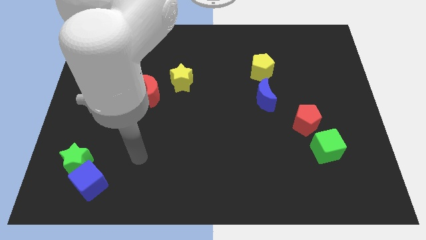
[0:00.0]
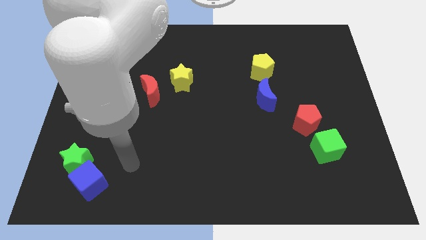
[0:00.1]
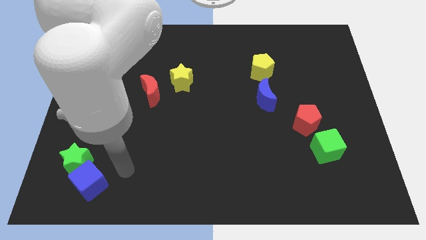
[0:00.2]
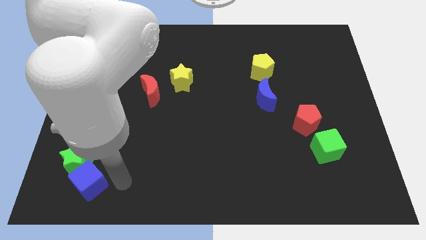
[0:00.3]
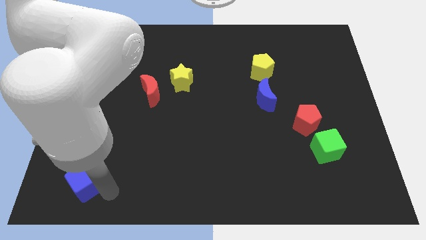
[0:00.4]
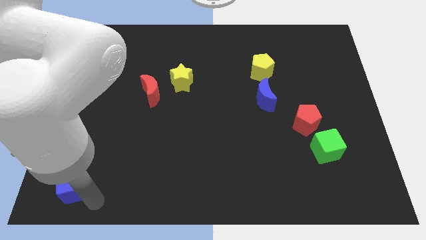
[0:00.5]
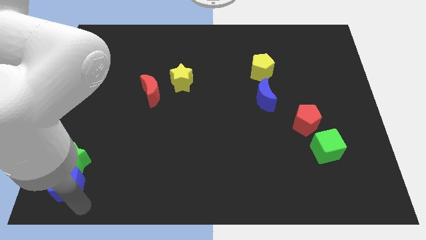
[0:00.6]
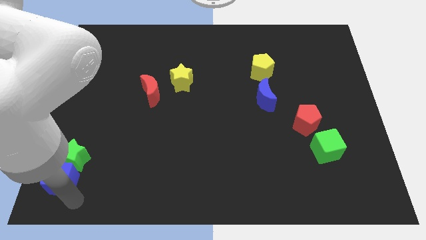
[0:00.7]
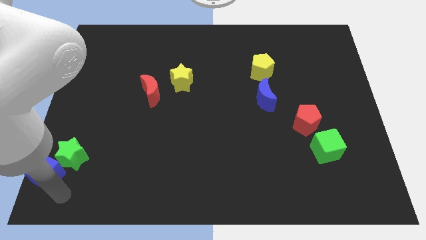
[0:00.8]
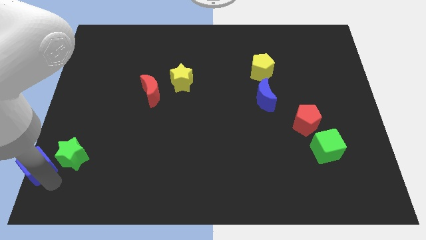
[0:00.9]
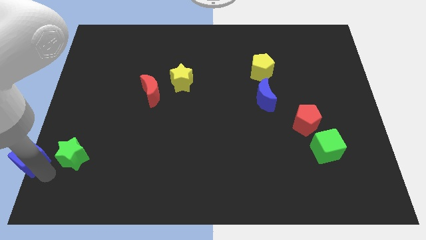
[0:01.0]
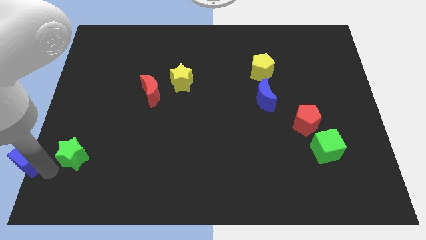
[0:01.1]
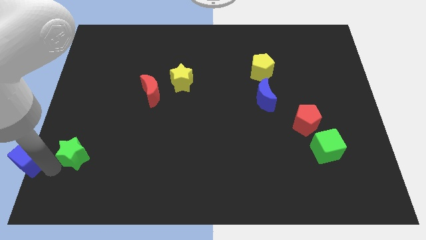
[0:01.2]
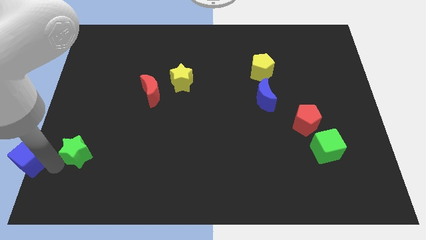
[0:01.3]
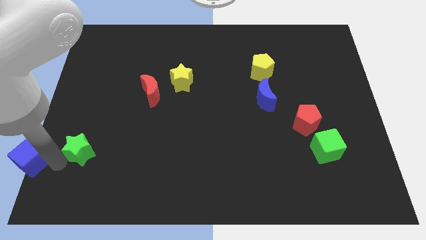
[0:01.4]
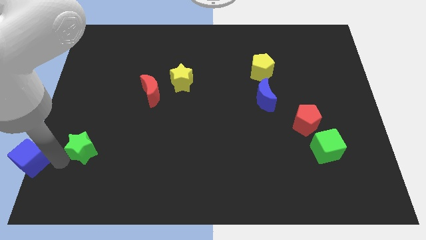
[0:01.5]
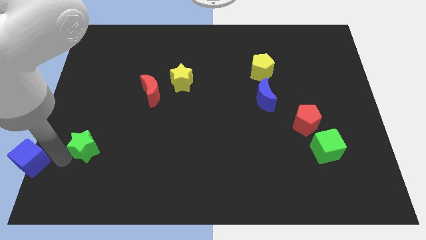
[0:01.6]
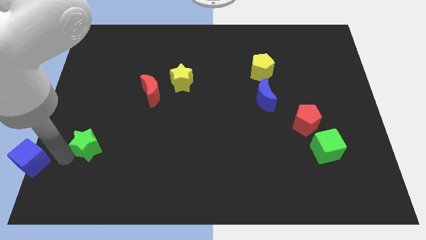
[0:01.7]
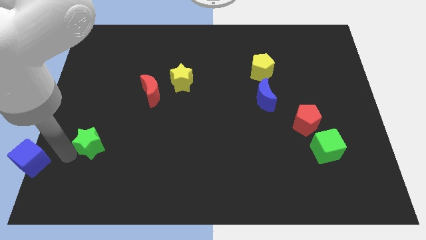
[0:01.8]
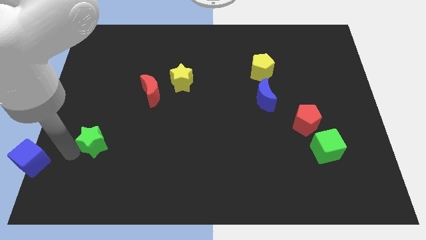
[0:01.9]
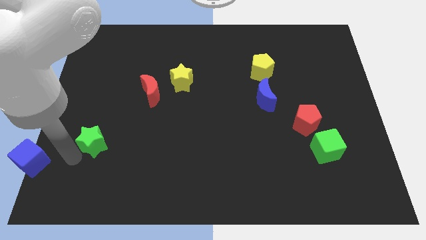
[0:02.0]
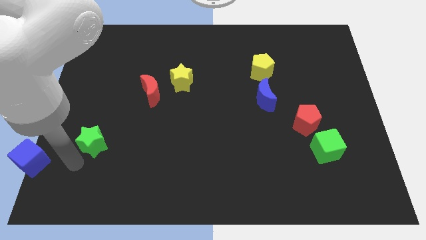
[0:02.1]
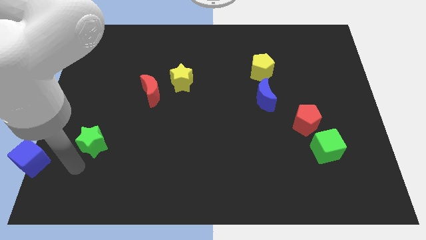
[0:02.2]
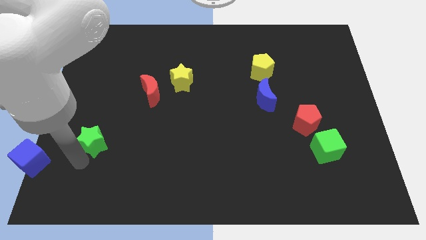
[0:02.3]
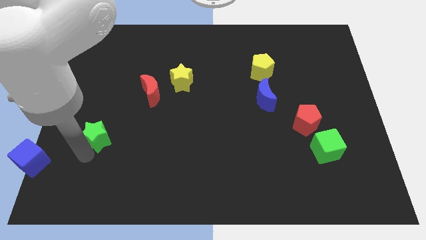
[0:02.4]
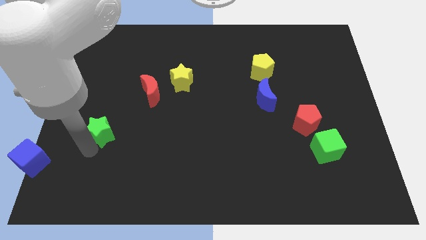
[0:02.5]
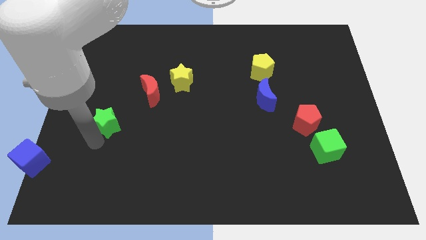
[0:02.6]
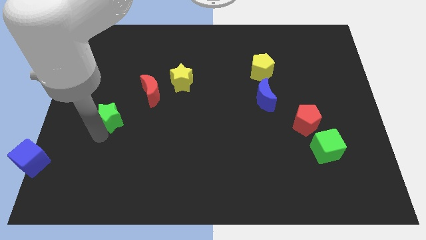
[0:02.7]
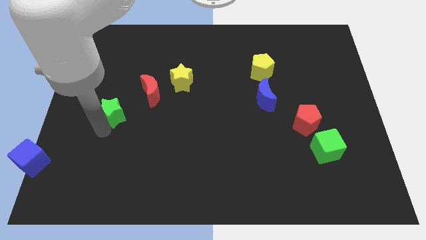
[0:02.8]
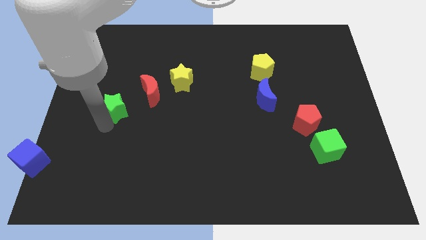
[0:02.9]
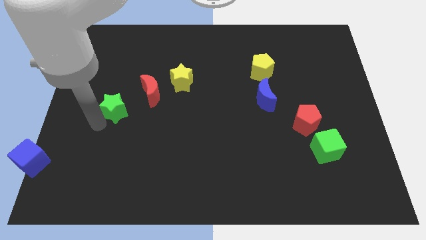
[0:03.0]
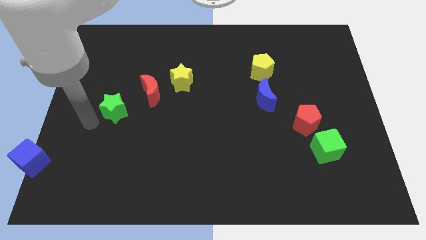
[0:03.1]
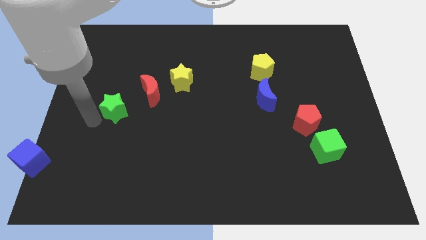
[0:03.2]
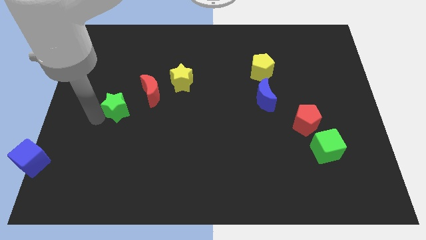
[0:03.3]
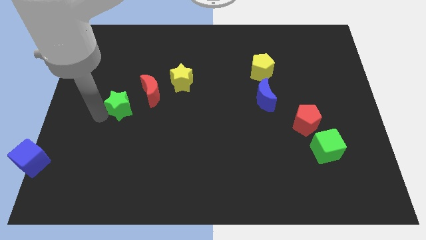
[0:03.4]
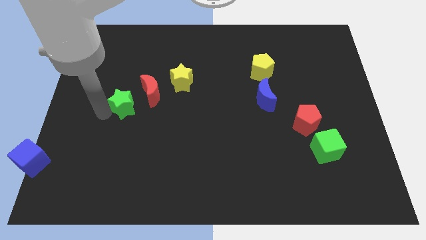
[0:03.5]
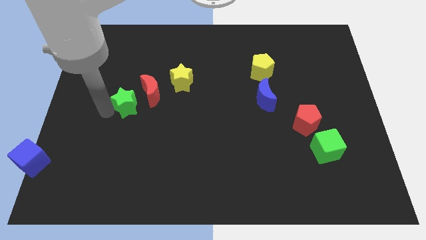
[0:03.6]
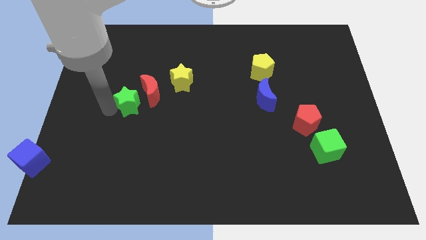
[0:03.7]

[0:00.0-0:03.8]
move the green star to the red moon

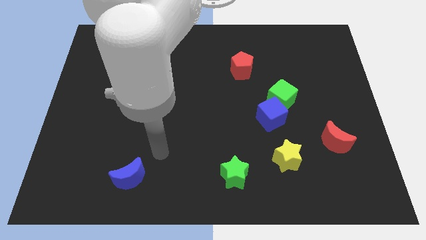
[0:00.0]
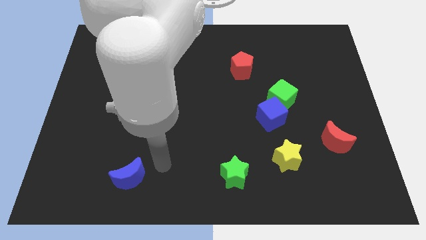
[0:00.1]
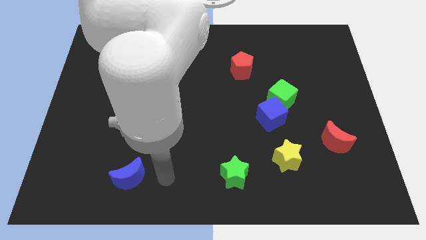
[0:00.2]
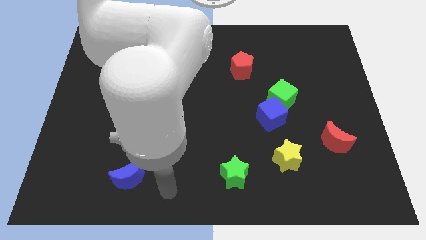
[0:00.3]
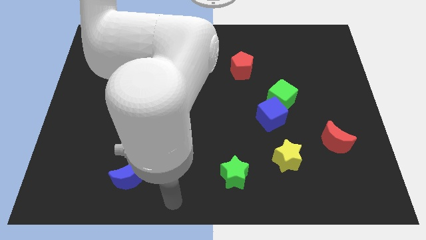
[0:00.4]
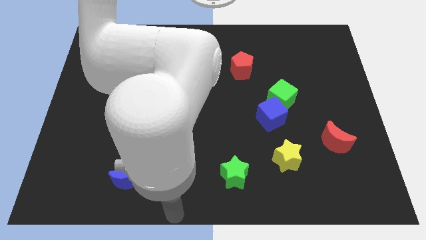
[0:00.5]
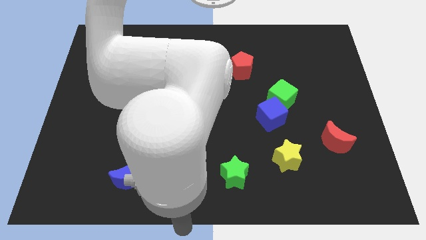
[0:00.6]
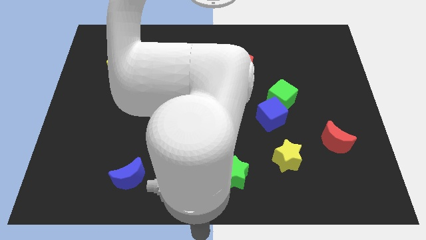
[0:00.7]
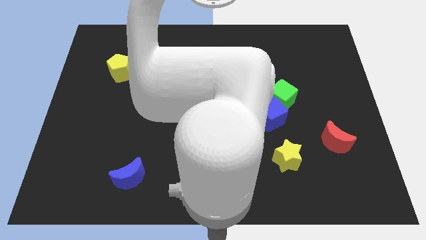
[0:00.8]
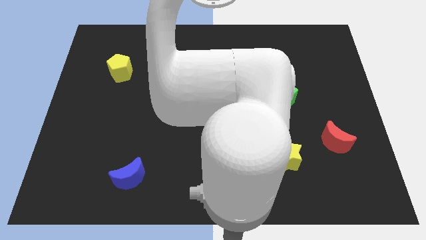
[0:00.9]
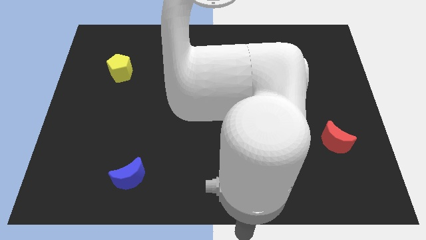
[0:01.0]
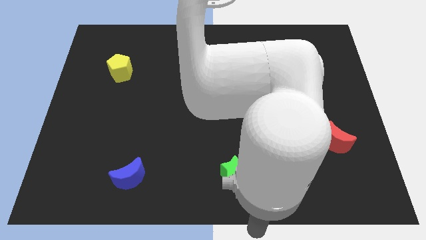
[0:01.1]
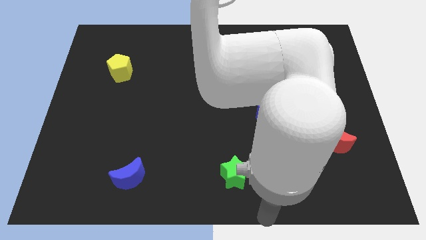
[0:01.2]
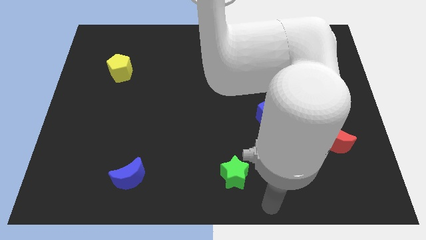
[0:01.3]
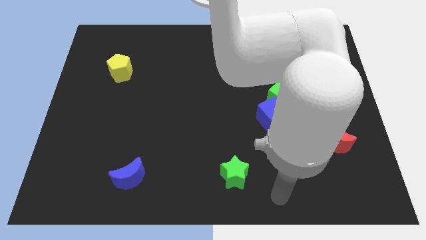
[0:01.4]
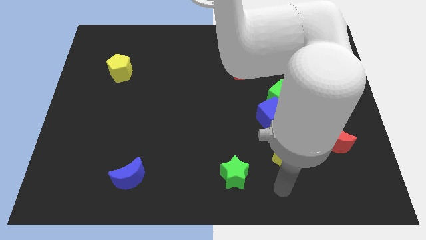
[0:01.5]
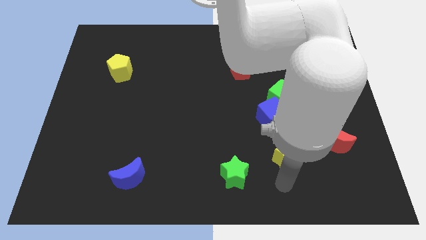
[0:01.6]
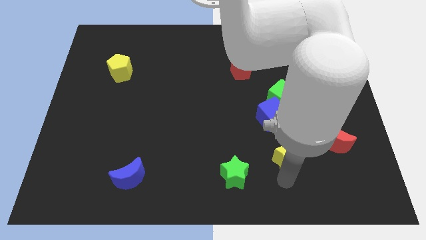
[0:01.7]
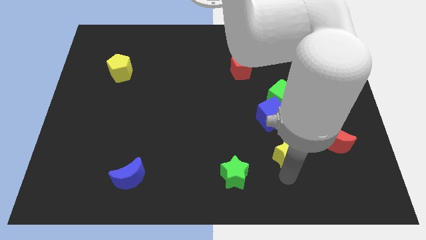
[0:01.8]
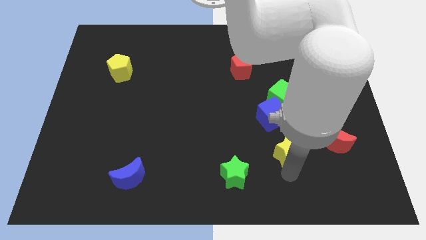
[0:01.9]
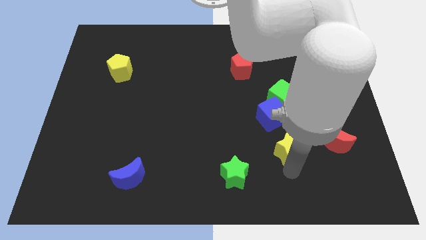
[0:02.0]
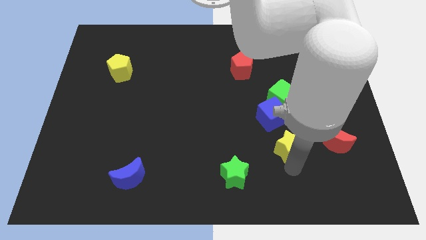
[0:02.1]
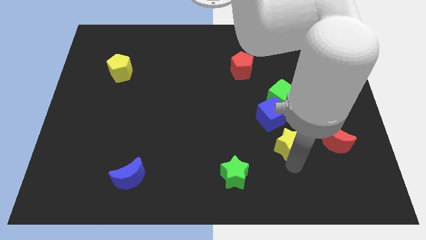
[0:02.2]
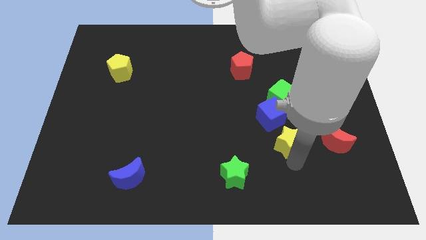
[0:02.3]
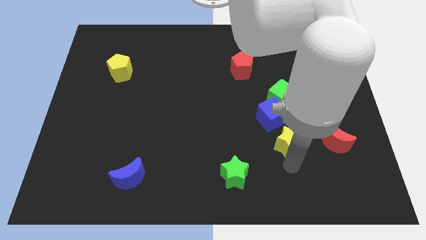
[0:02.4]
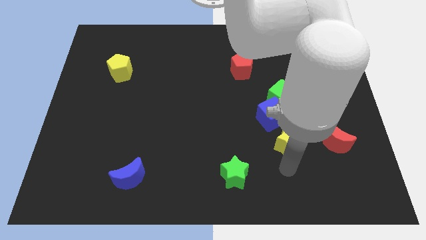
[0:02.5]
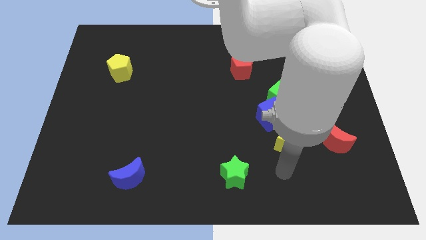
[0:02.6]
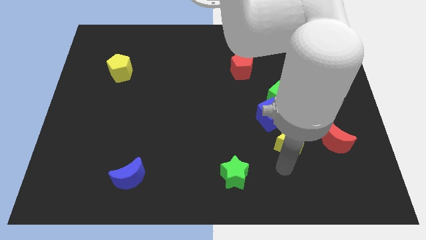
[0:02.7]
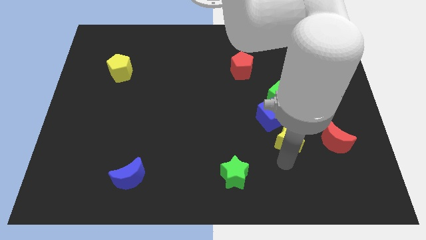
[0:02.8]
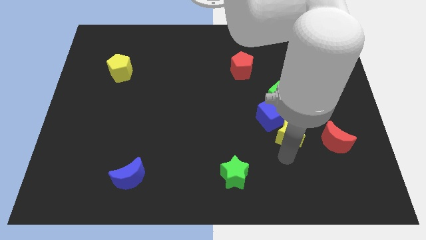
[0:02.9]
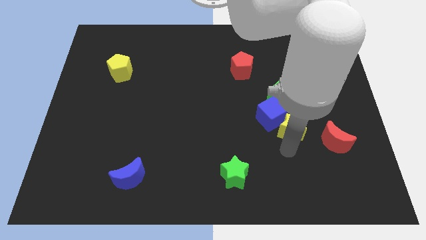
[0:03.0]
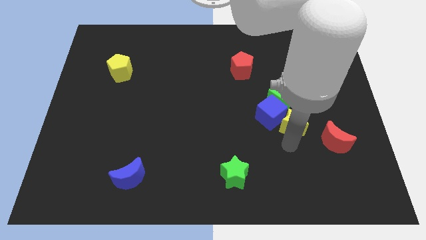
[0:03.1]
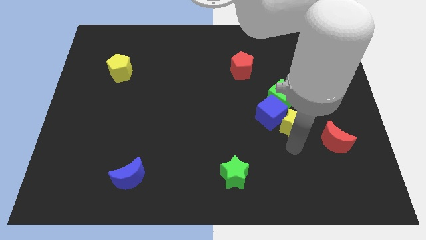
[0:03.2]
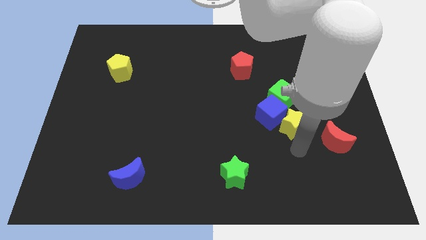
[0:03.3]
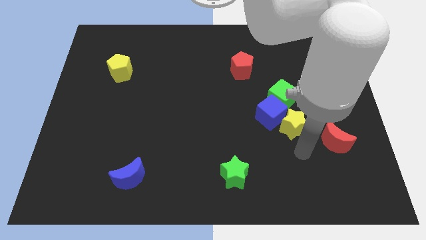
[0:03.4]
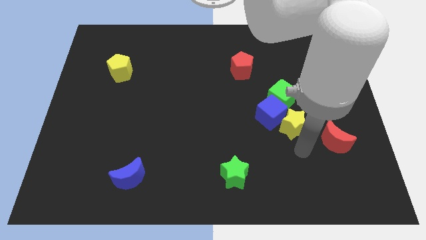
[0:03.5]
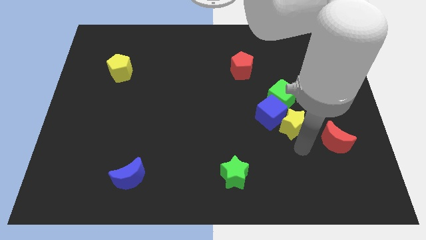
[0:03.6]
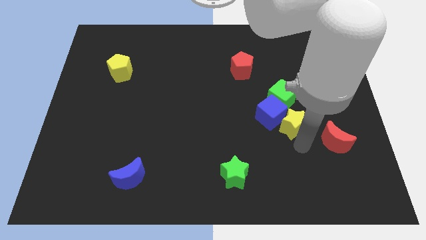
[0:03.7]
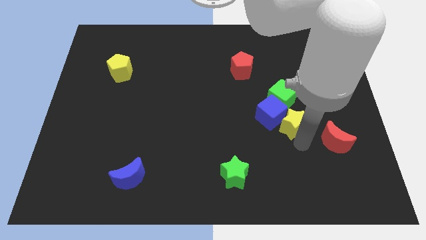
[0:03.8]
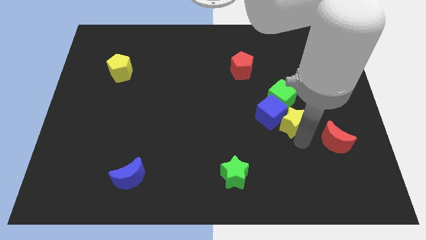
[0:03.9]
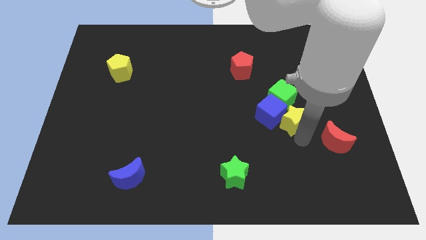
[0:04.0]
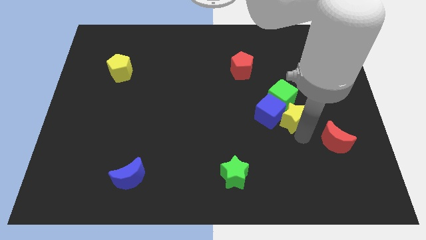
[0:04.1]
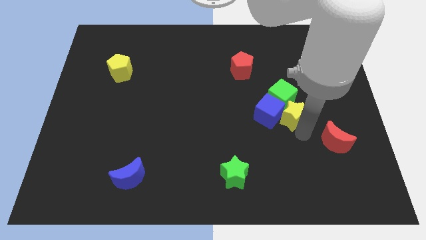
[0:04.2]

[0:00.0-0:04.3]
push the yellow star next to the green cube

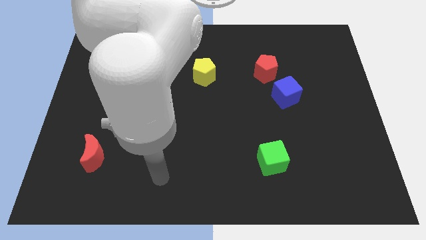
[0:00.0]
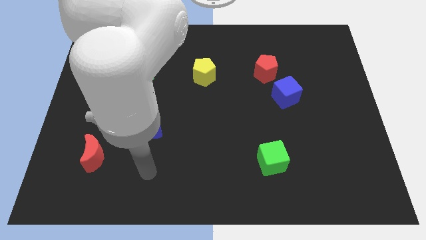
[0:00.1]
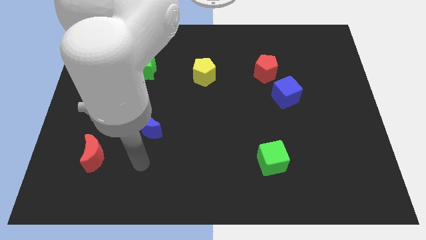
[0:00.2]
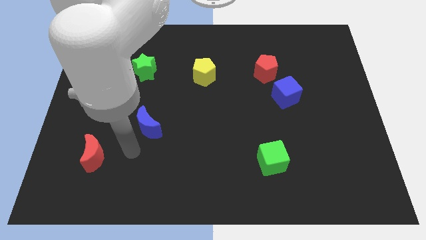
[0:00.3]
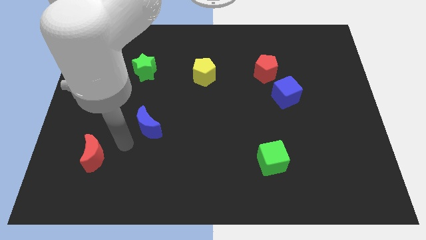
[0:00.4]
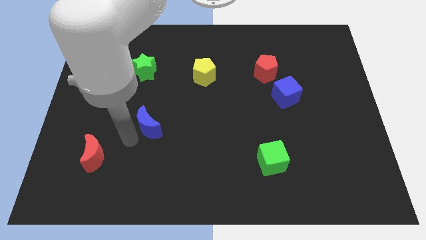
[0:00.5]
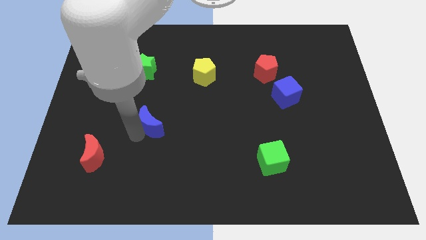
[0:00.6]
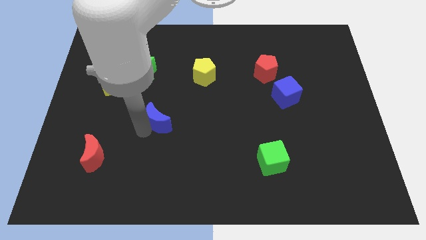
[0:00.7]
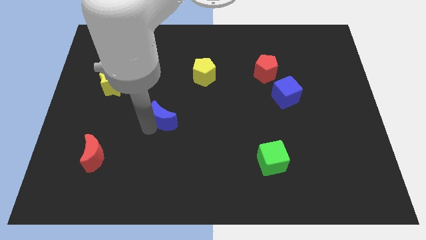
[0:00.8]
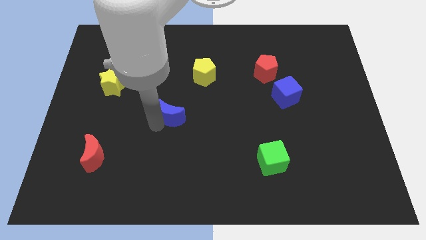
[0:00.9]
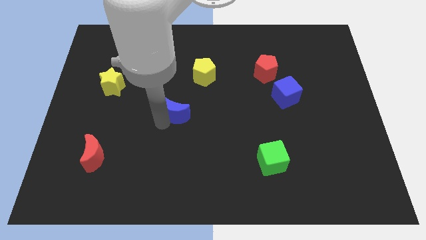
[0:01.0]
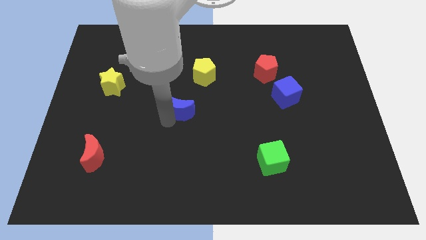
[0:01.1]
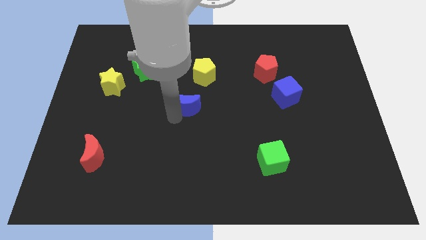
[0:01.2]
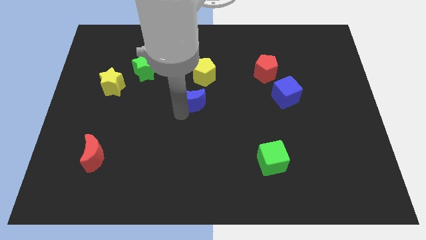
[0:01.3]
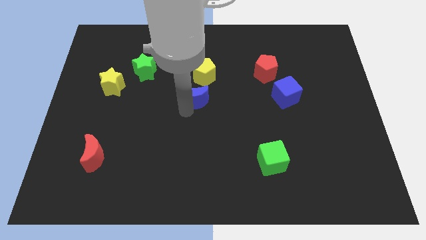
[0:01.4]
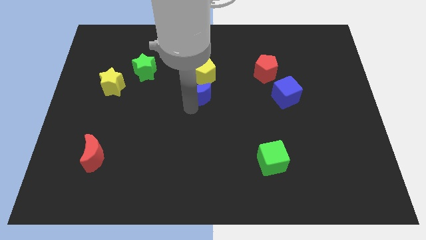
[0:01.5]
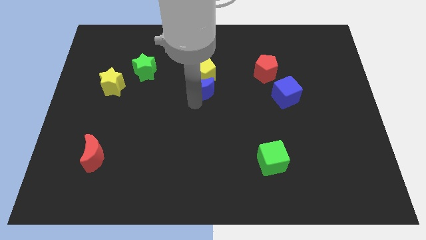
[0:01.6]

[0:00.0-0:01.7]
push the blue moon to the yellow pentagon
